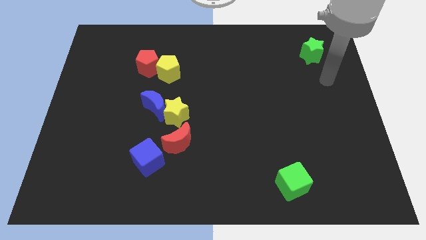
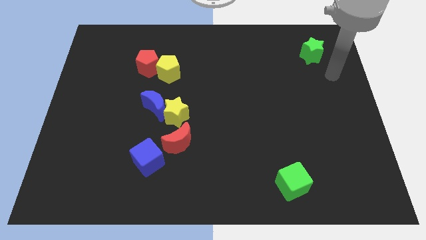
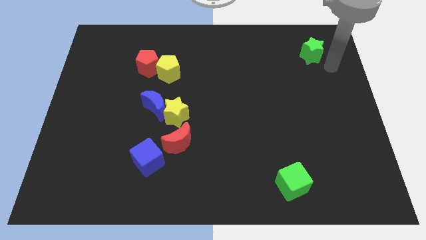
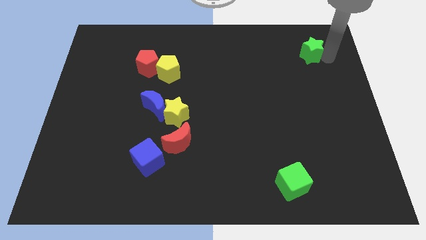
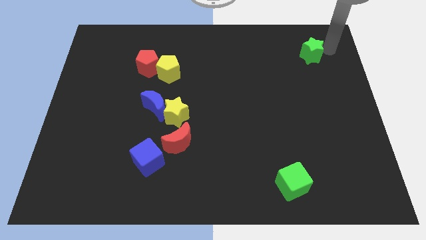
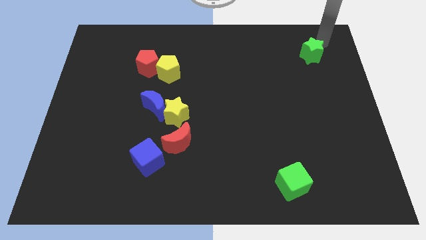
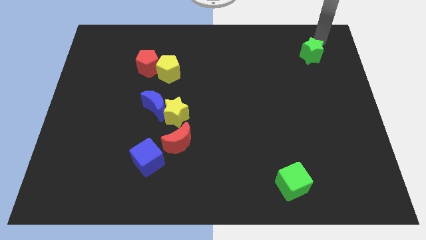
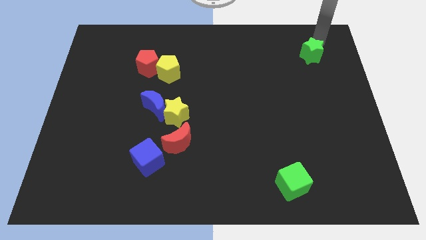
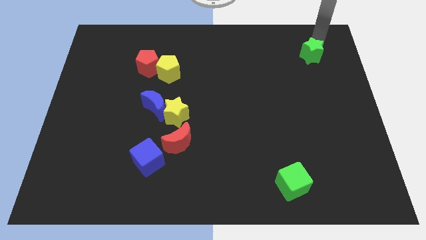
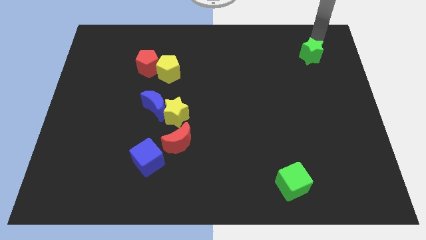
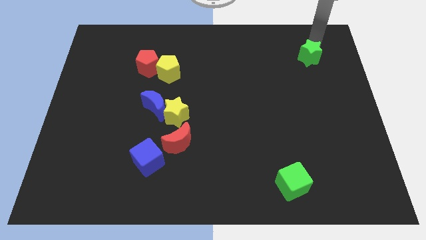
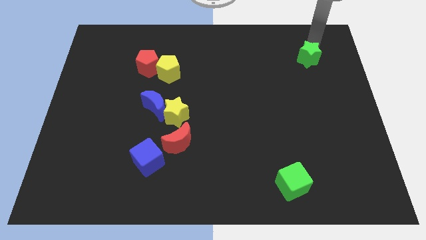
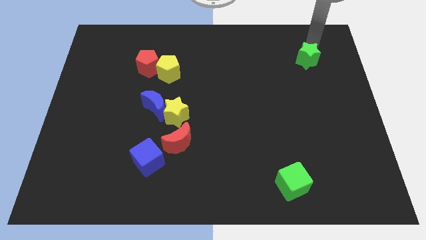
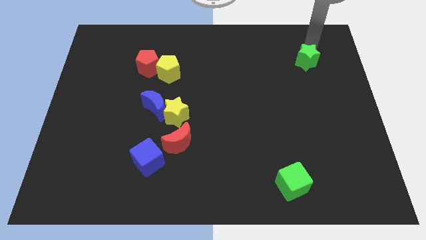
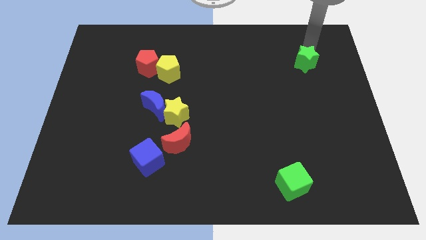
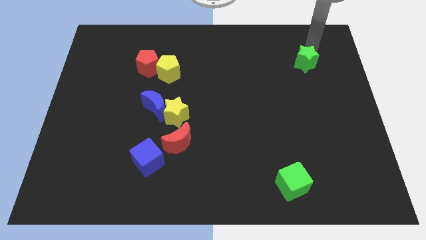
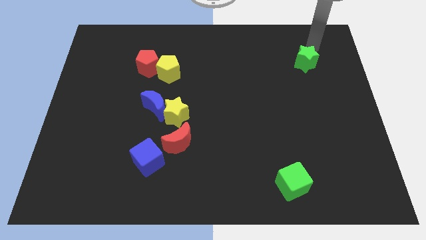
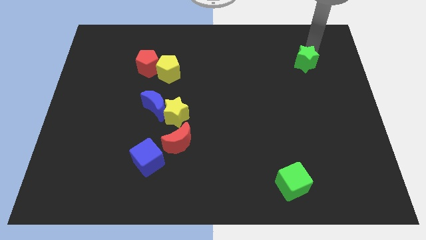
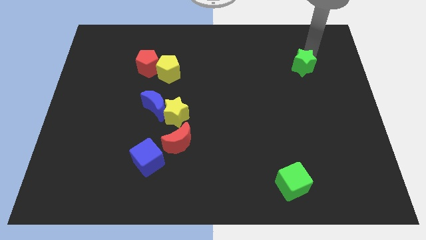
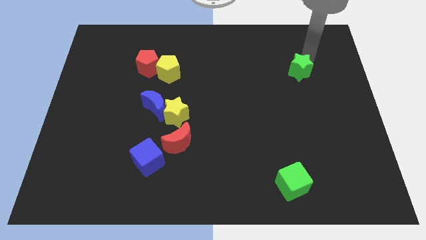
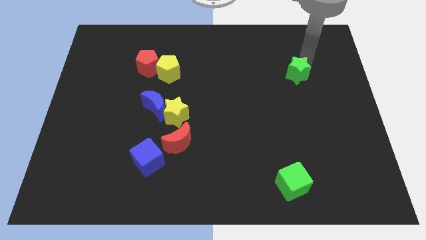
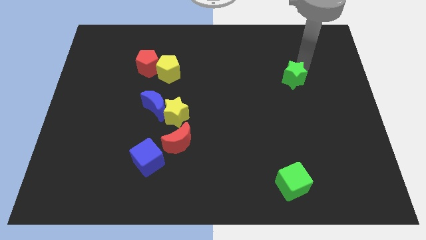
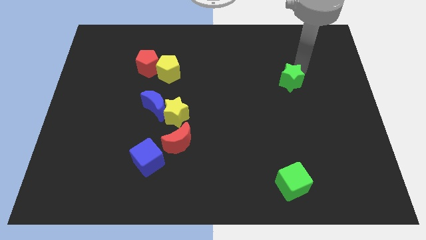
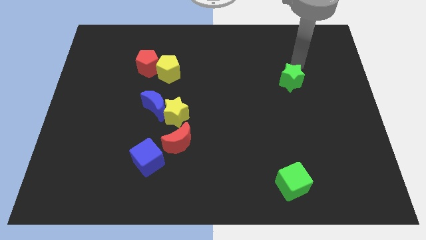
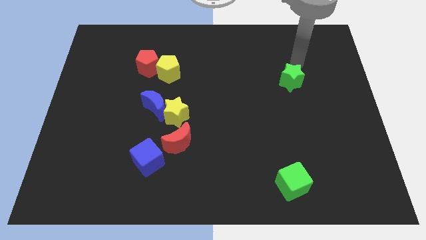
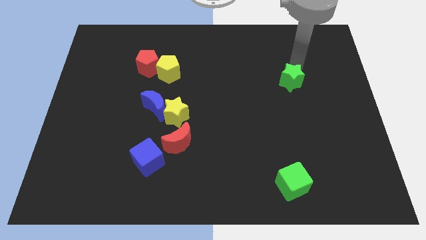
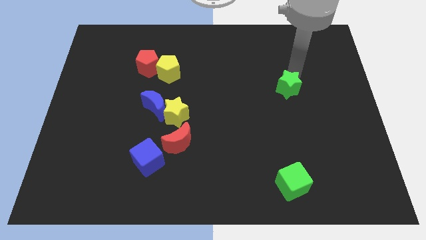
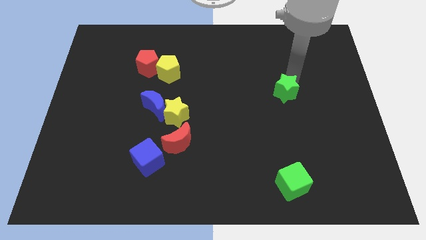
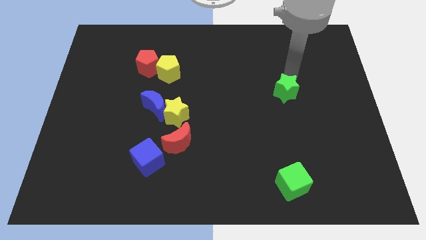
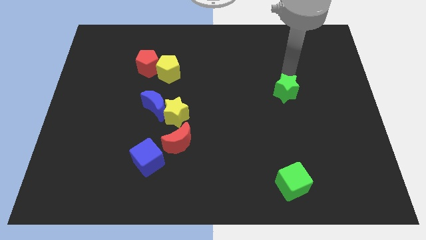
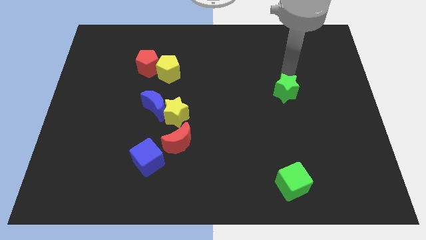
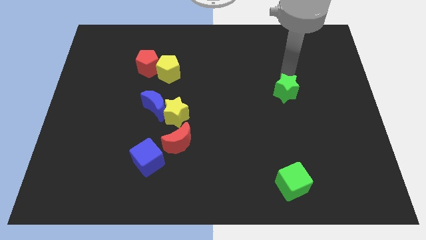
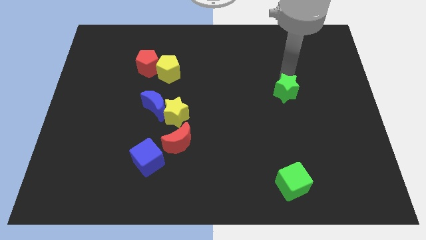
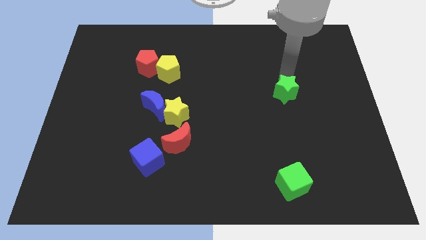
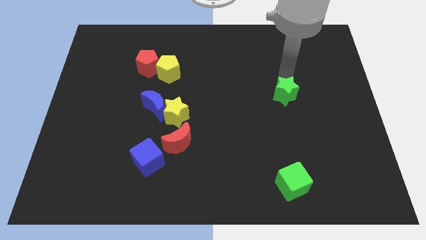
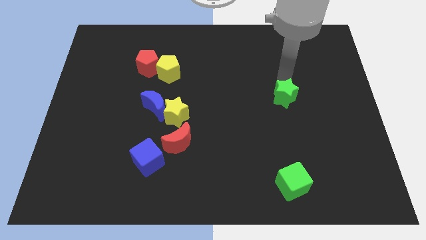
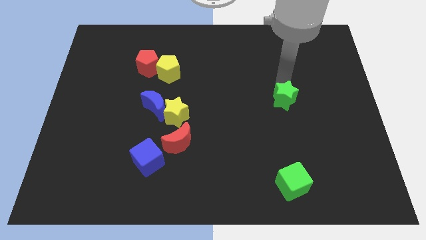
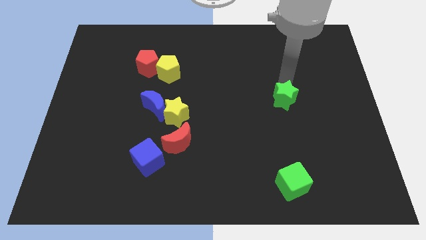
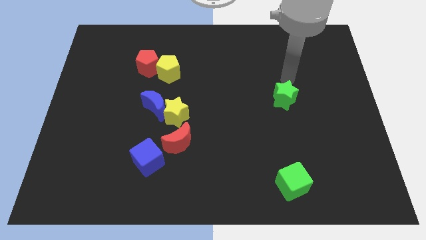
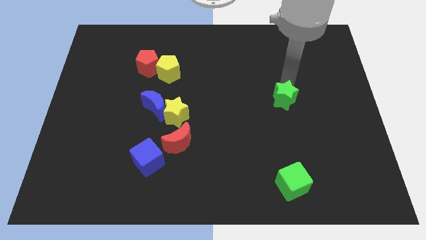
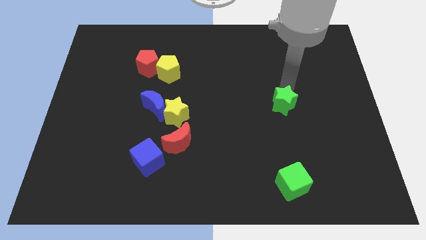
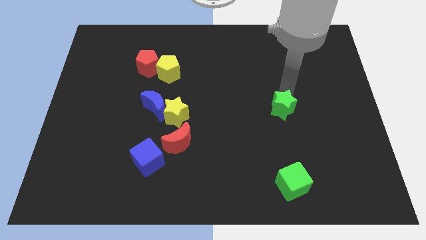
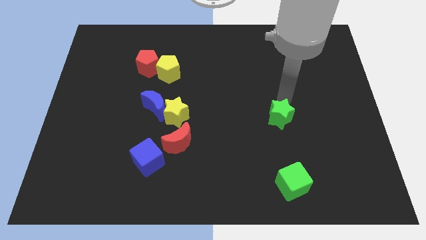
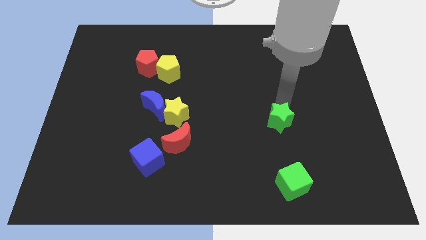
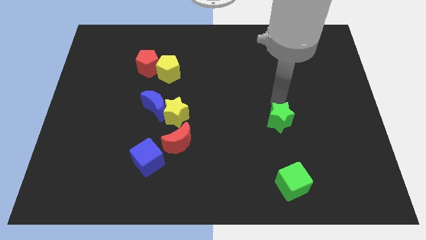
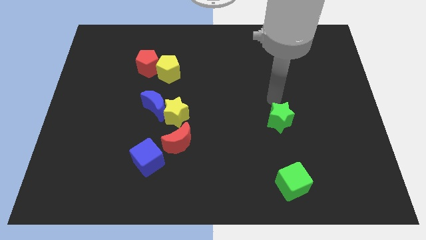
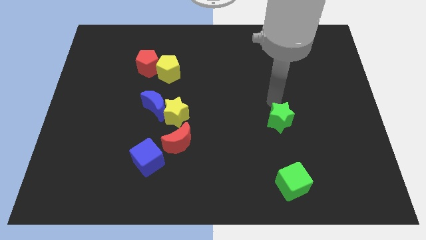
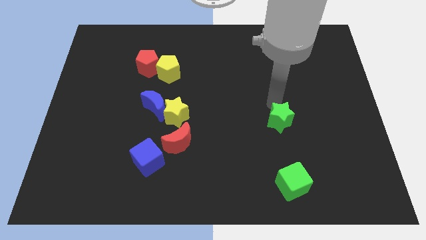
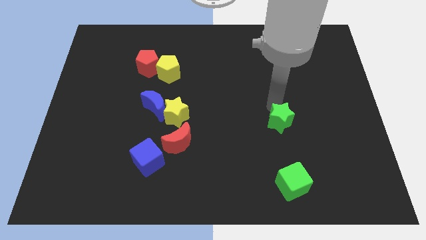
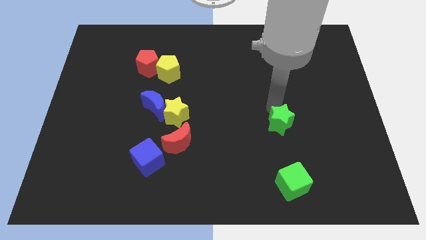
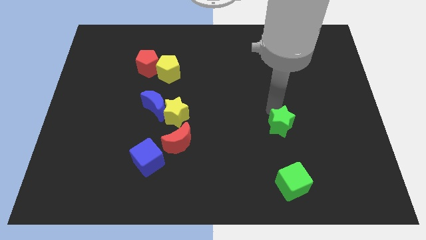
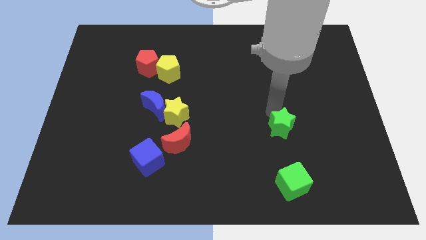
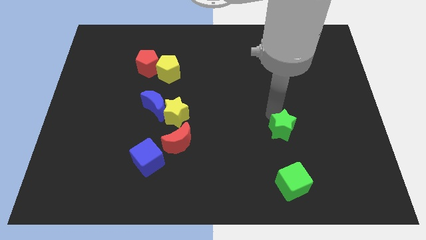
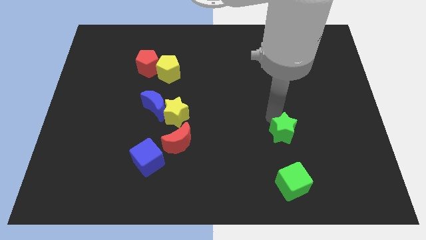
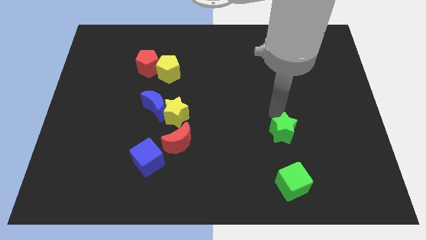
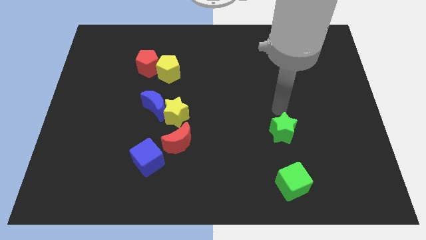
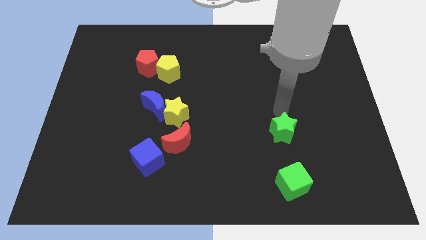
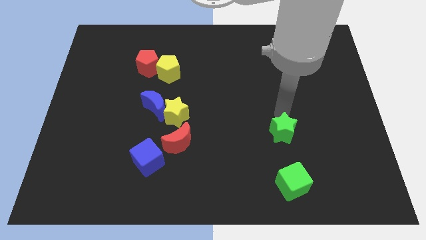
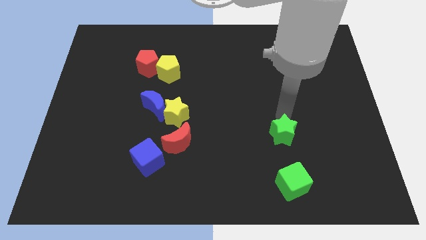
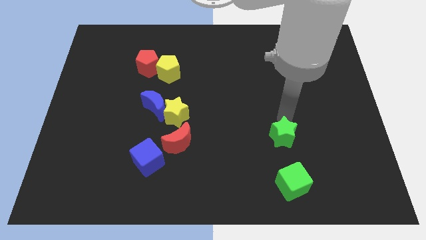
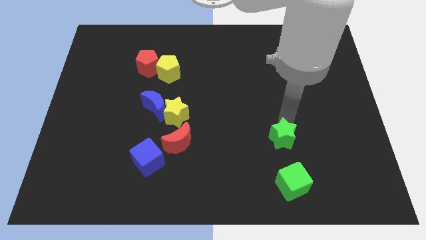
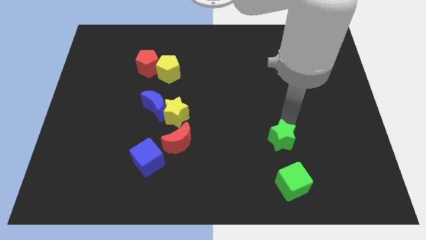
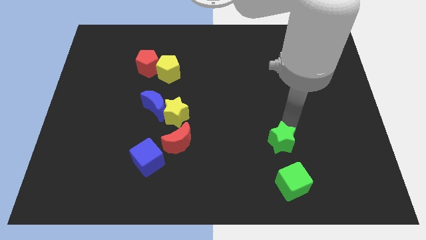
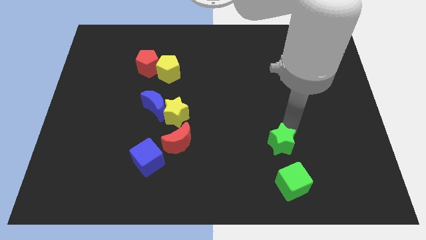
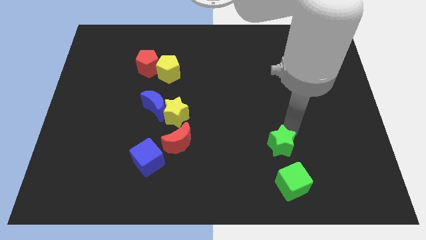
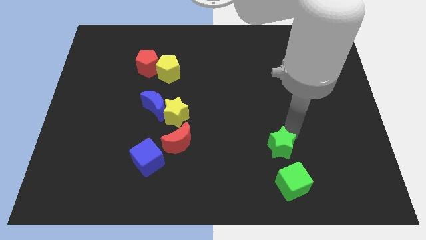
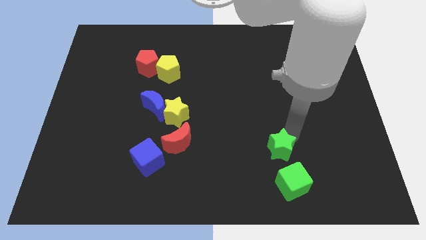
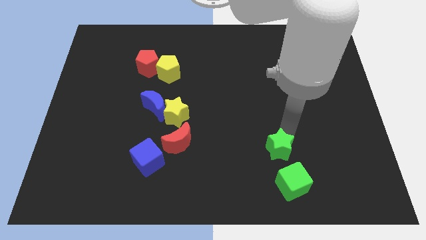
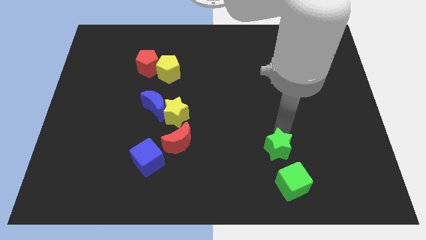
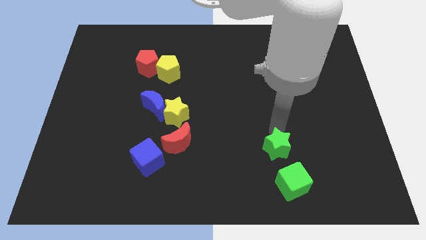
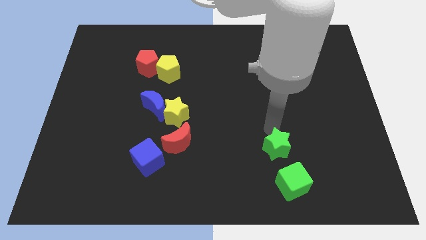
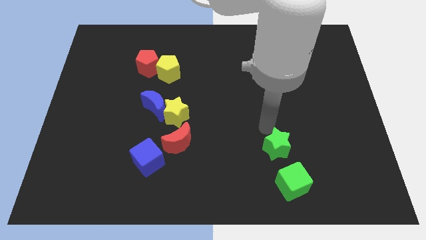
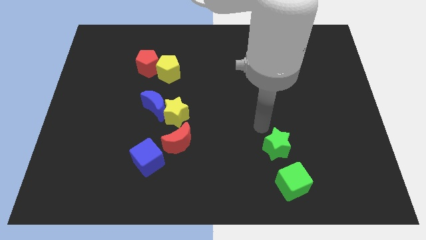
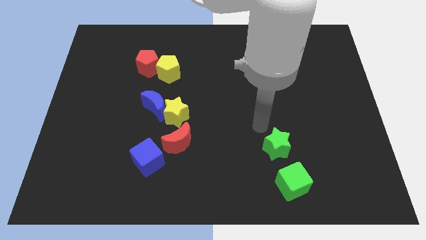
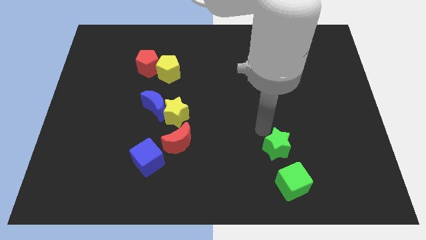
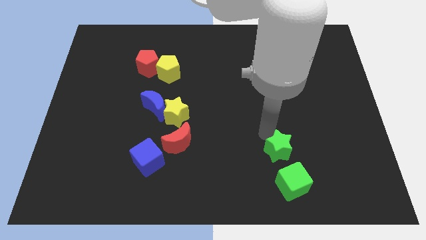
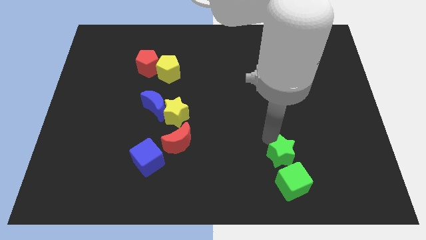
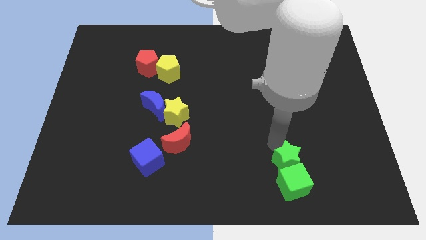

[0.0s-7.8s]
put the green star towards the green cube
